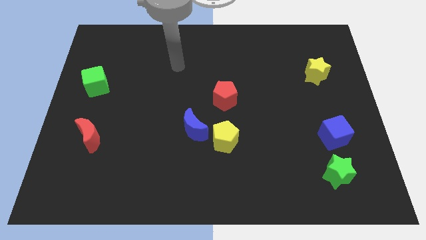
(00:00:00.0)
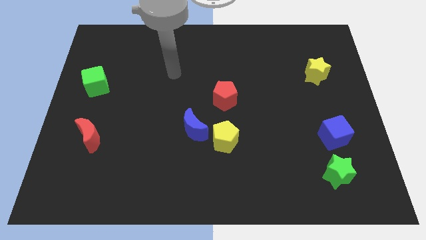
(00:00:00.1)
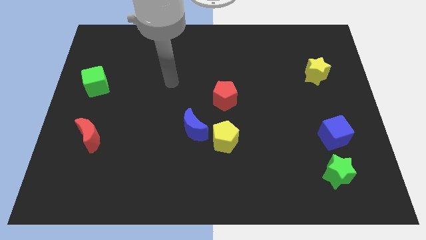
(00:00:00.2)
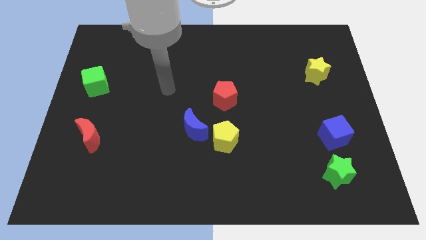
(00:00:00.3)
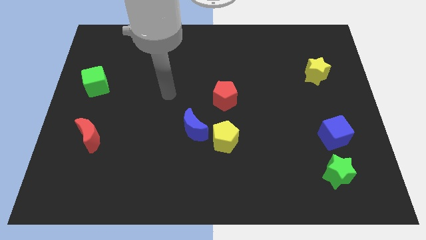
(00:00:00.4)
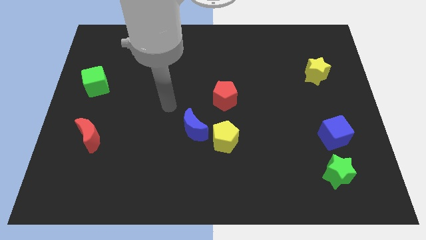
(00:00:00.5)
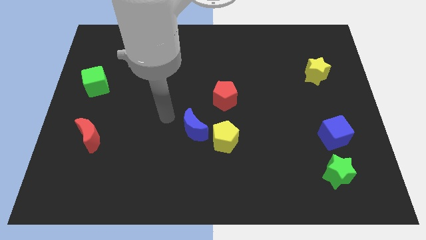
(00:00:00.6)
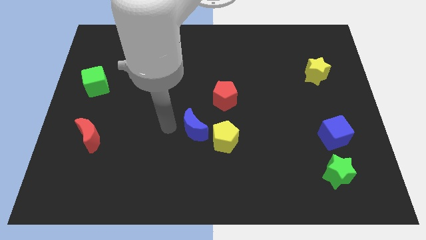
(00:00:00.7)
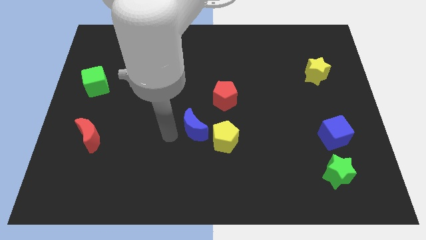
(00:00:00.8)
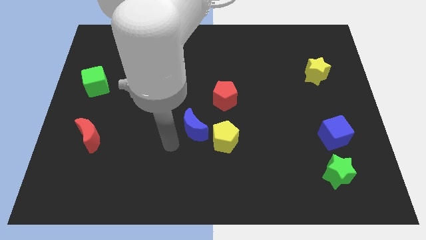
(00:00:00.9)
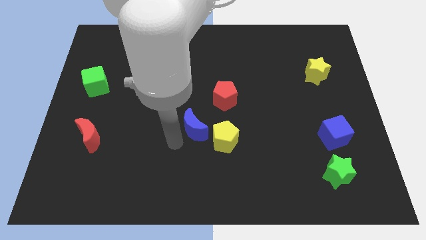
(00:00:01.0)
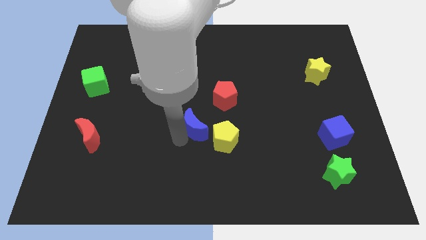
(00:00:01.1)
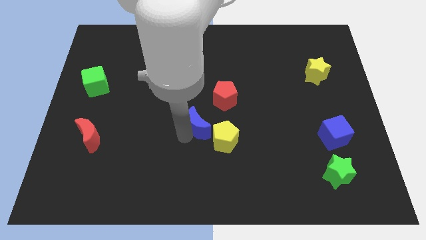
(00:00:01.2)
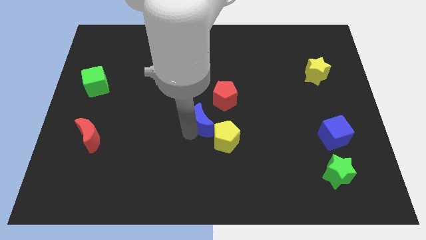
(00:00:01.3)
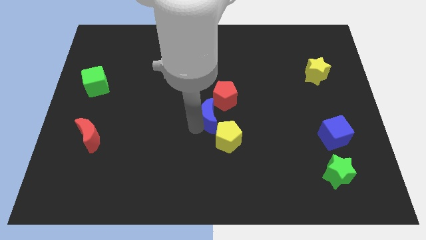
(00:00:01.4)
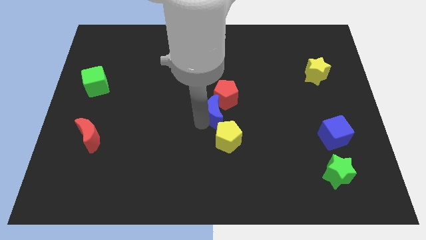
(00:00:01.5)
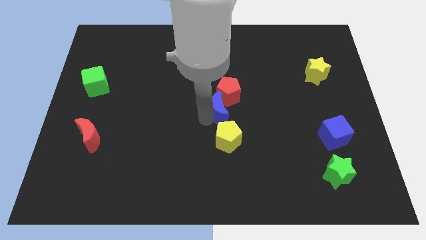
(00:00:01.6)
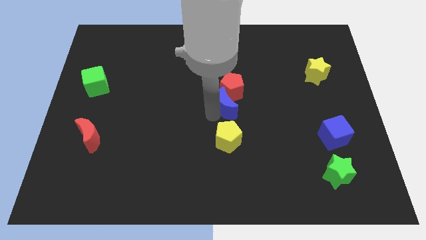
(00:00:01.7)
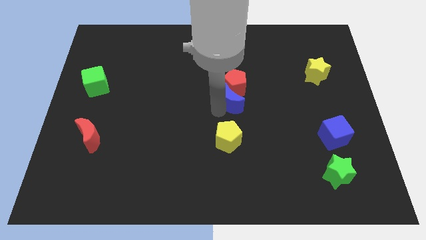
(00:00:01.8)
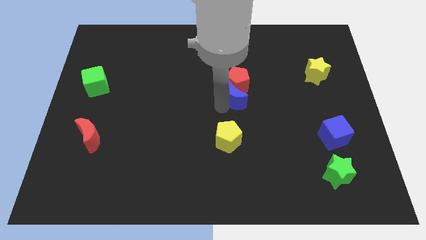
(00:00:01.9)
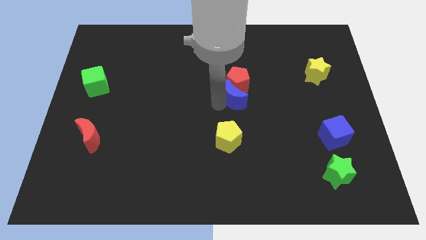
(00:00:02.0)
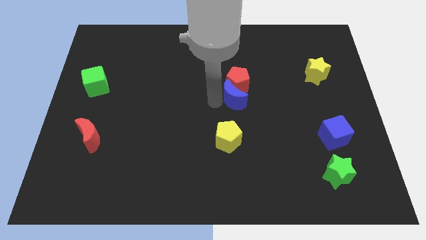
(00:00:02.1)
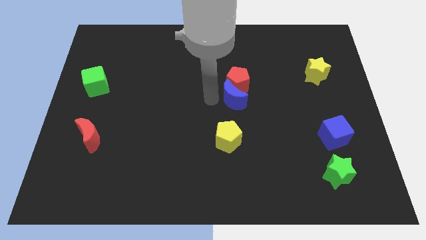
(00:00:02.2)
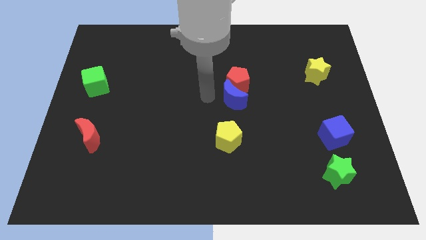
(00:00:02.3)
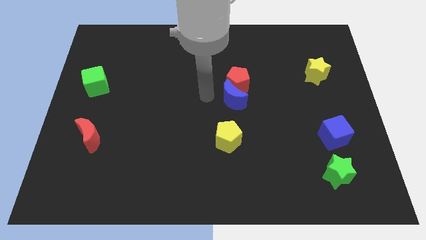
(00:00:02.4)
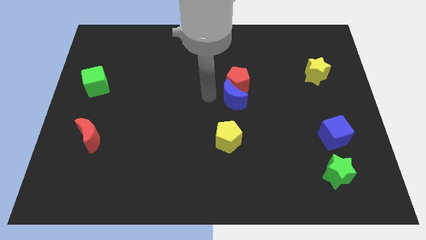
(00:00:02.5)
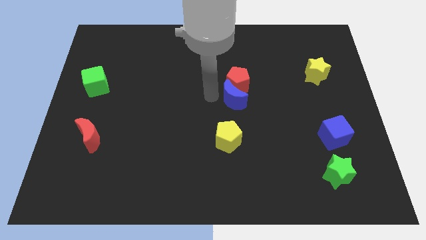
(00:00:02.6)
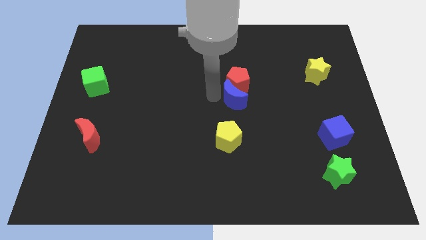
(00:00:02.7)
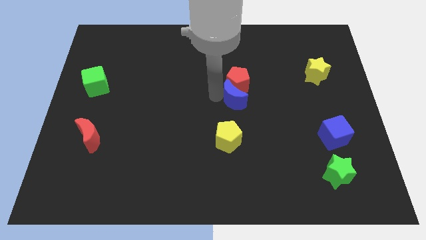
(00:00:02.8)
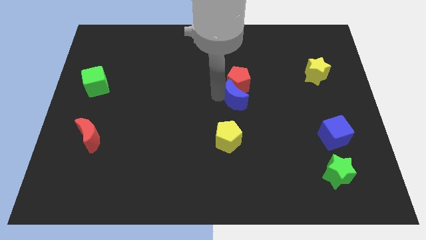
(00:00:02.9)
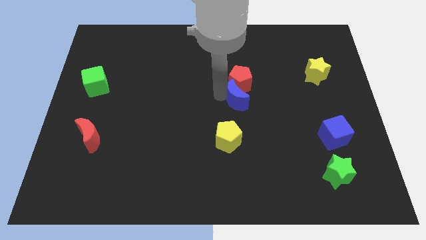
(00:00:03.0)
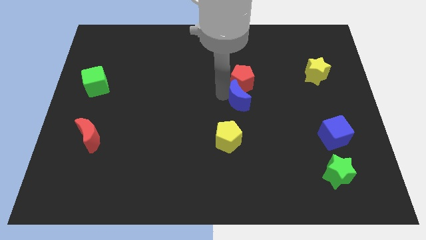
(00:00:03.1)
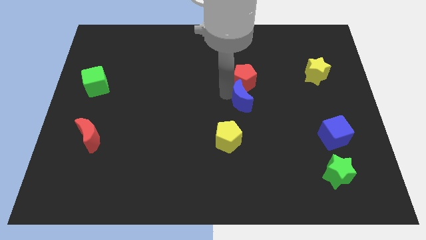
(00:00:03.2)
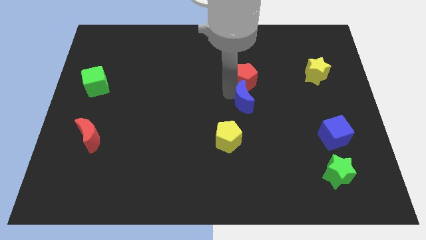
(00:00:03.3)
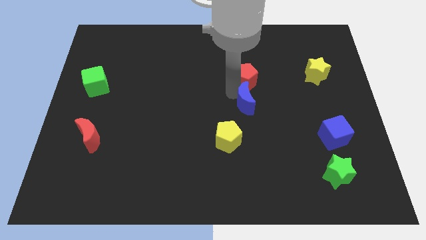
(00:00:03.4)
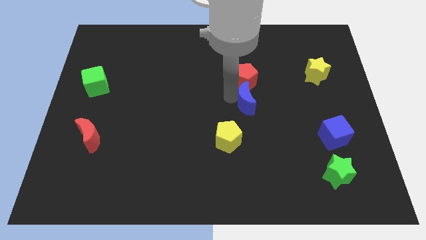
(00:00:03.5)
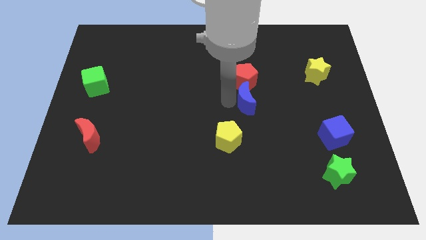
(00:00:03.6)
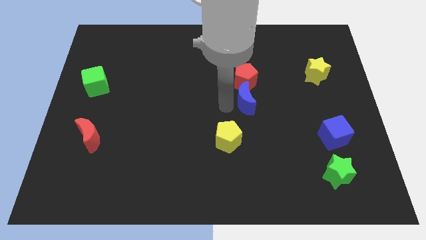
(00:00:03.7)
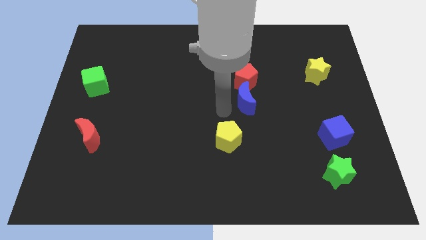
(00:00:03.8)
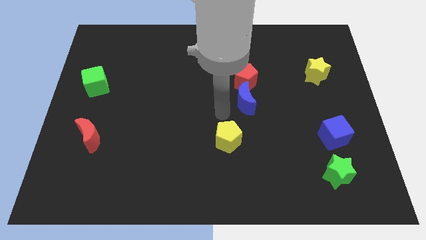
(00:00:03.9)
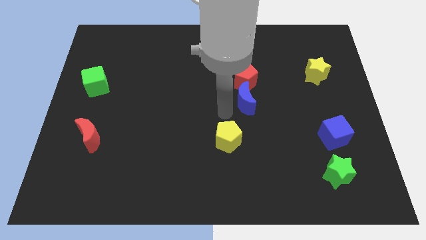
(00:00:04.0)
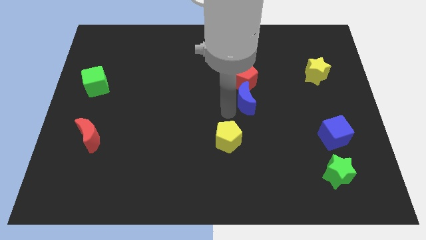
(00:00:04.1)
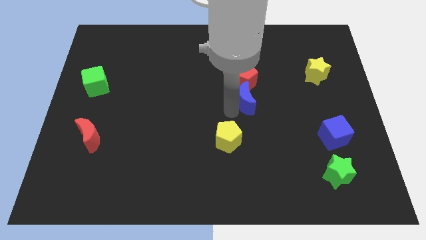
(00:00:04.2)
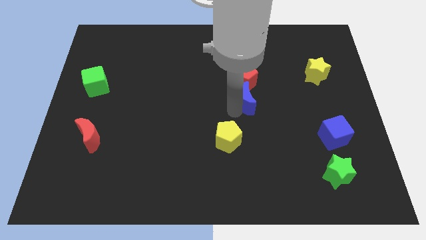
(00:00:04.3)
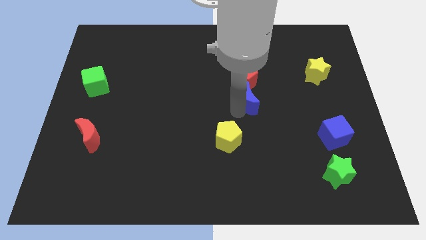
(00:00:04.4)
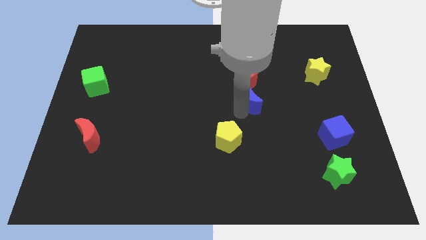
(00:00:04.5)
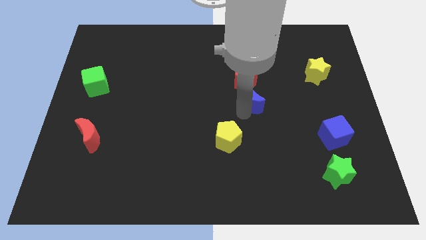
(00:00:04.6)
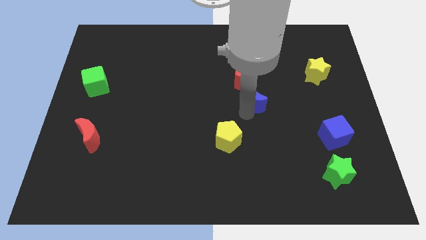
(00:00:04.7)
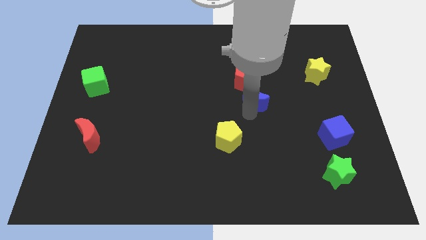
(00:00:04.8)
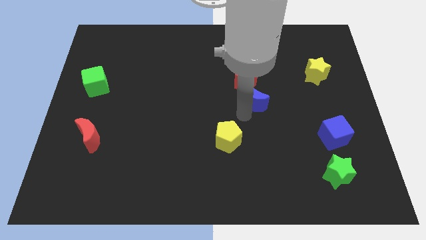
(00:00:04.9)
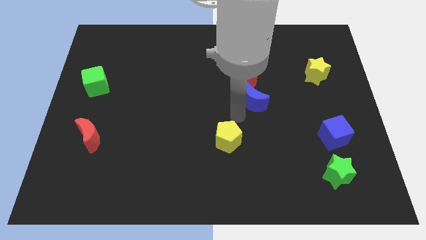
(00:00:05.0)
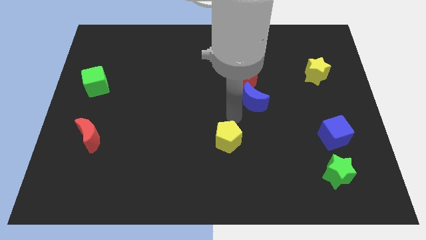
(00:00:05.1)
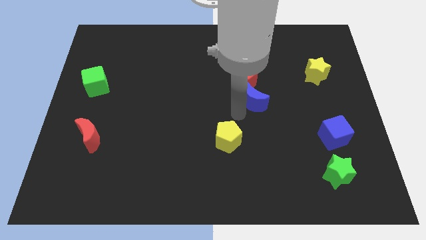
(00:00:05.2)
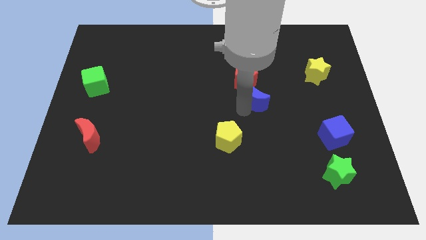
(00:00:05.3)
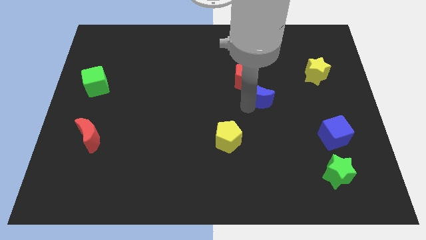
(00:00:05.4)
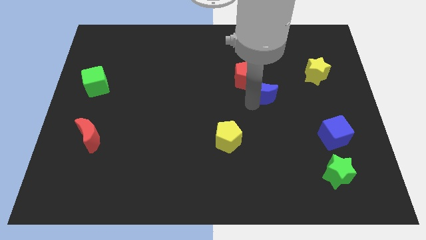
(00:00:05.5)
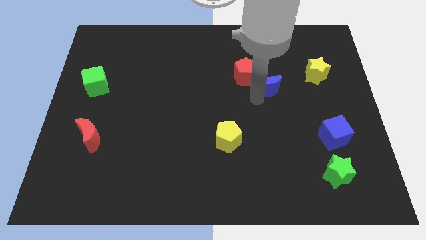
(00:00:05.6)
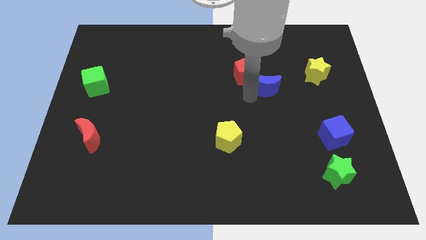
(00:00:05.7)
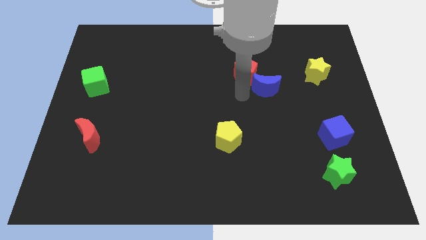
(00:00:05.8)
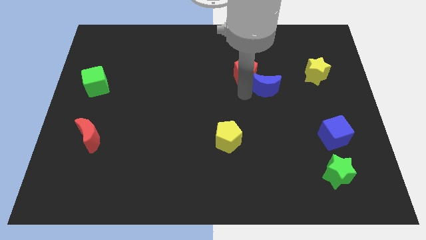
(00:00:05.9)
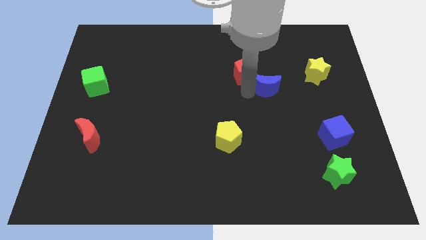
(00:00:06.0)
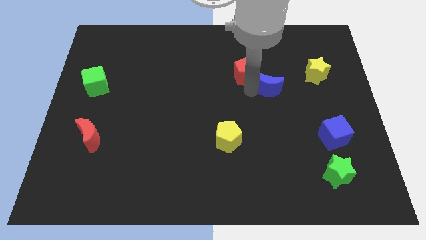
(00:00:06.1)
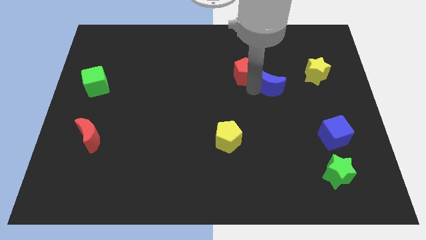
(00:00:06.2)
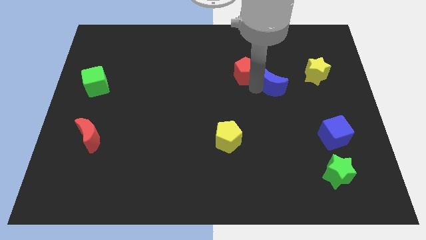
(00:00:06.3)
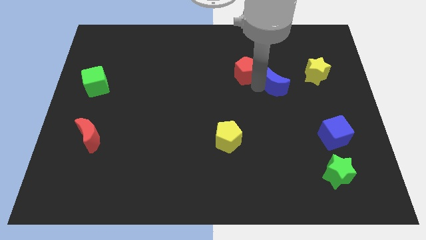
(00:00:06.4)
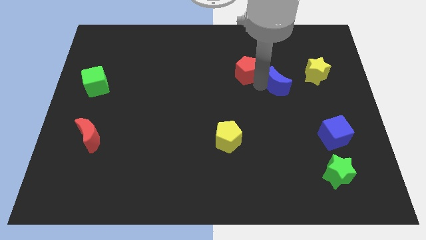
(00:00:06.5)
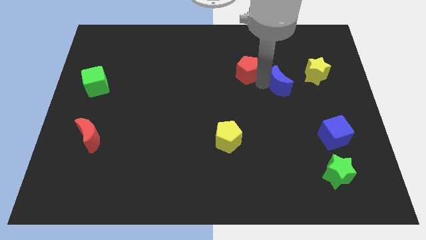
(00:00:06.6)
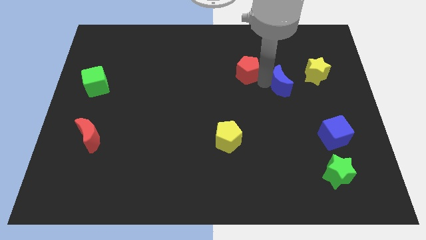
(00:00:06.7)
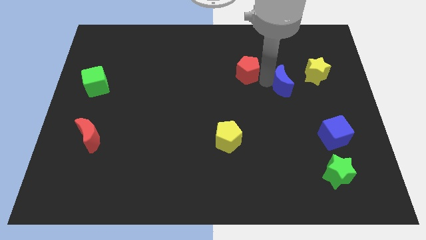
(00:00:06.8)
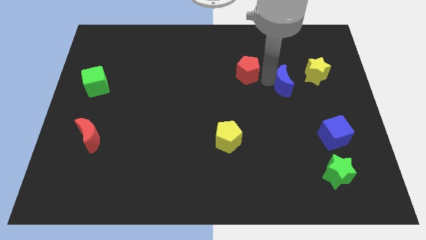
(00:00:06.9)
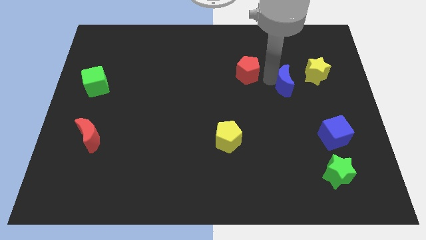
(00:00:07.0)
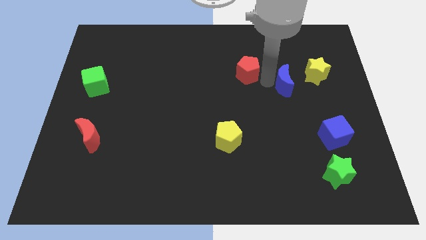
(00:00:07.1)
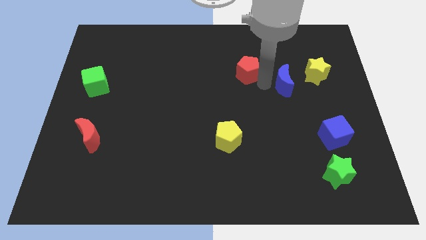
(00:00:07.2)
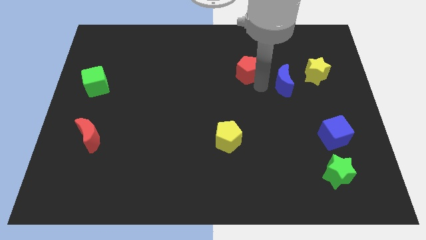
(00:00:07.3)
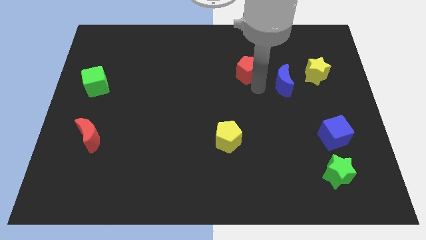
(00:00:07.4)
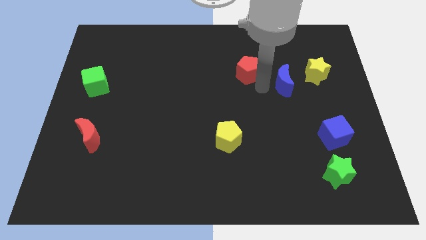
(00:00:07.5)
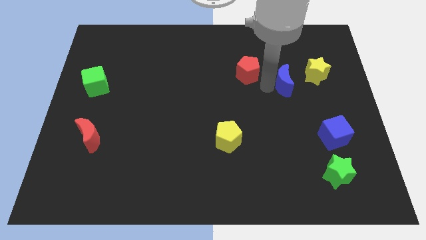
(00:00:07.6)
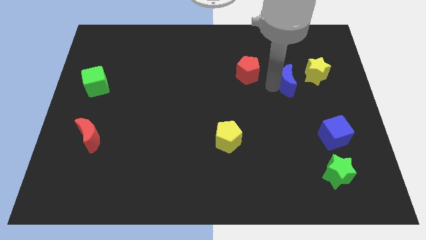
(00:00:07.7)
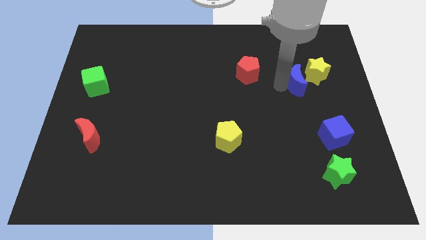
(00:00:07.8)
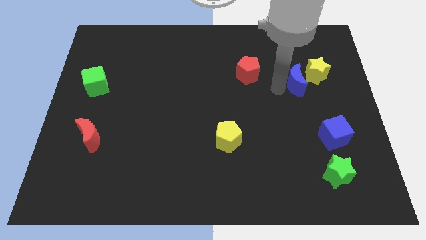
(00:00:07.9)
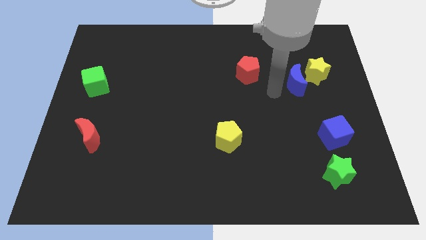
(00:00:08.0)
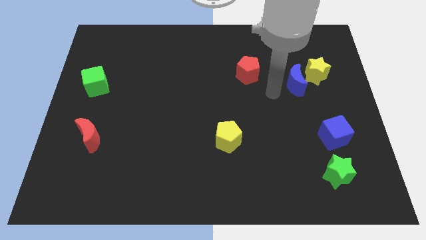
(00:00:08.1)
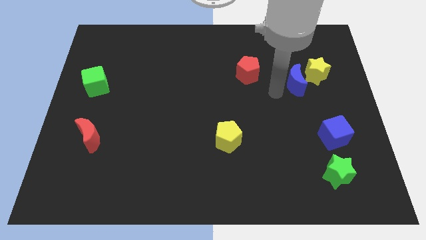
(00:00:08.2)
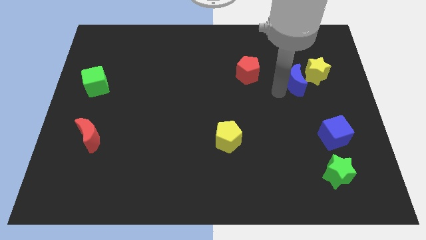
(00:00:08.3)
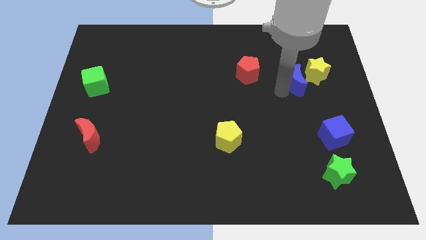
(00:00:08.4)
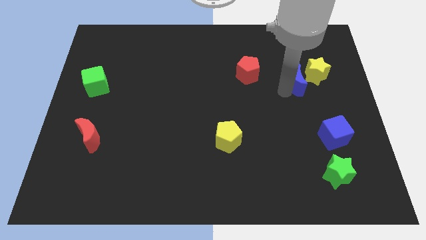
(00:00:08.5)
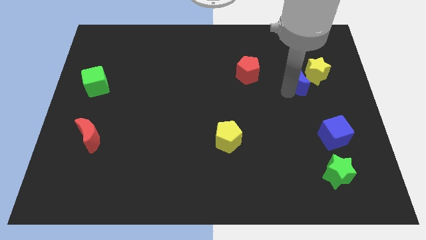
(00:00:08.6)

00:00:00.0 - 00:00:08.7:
slide the blue moon towards the yellow star
